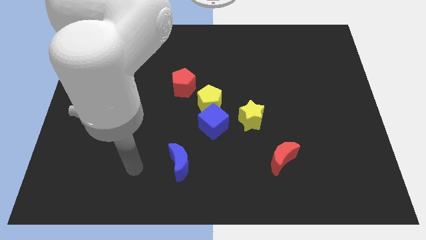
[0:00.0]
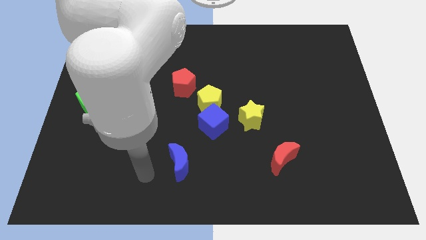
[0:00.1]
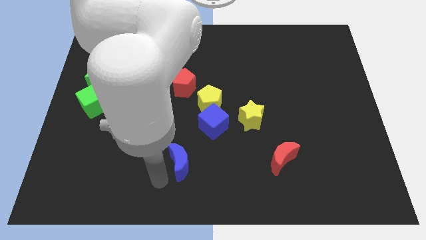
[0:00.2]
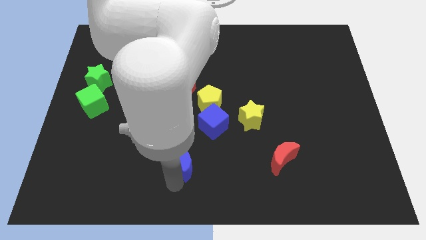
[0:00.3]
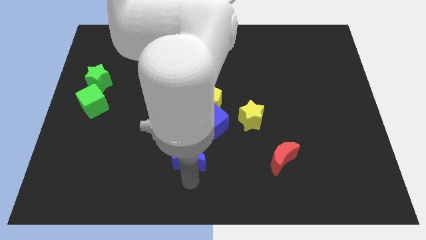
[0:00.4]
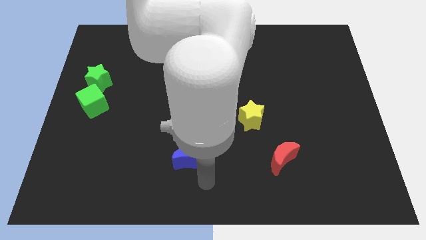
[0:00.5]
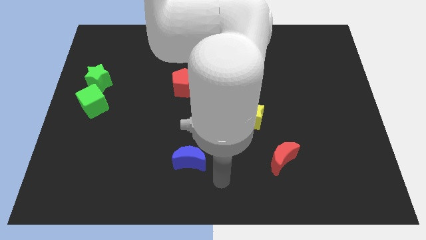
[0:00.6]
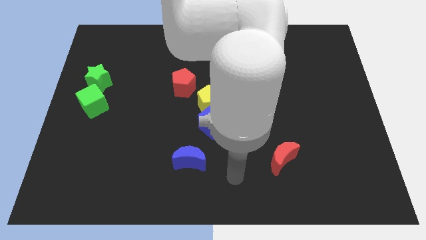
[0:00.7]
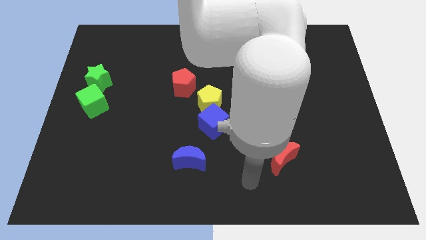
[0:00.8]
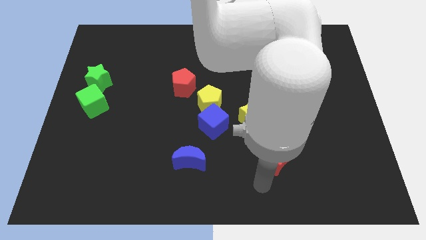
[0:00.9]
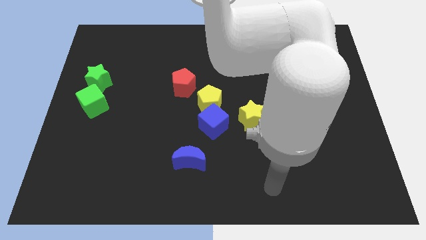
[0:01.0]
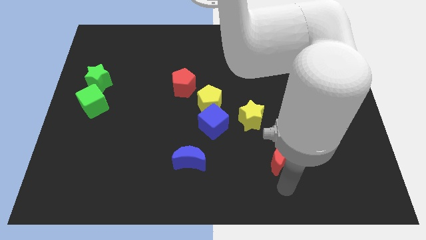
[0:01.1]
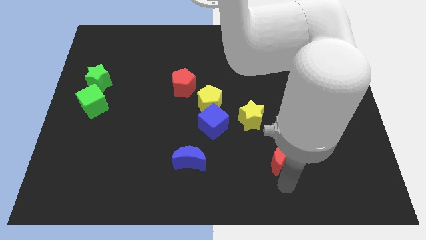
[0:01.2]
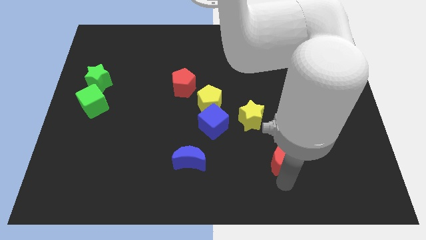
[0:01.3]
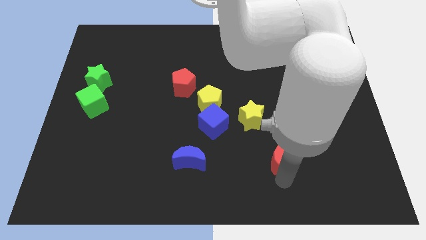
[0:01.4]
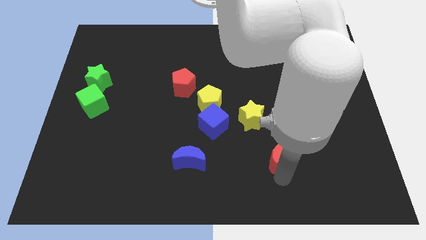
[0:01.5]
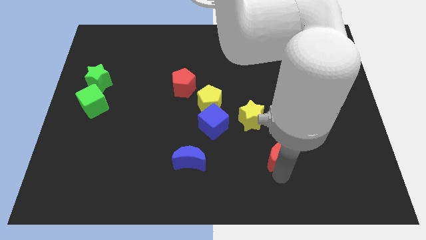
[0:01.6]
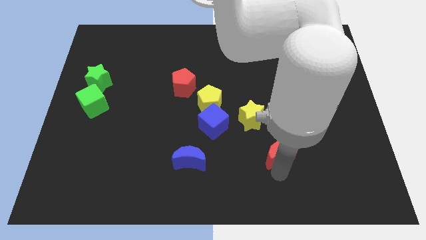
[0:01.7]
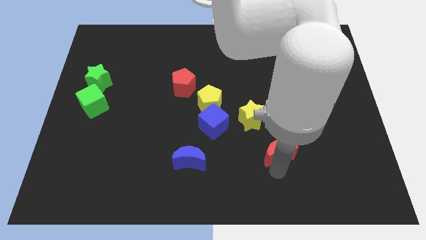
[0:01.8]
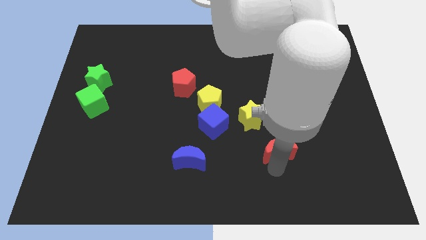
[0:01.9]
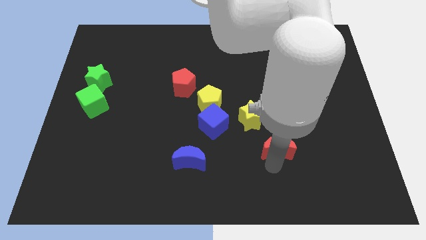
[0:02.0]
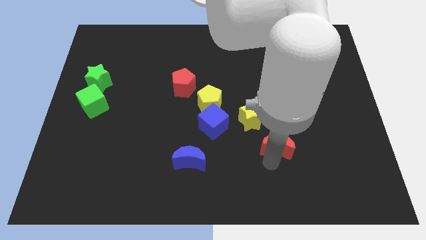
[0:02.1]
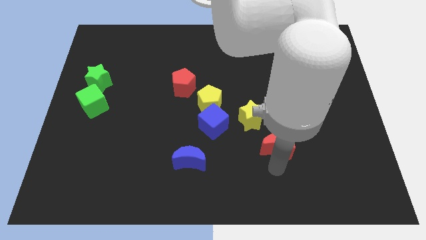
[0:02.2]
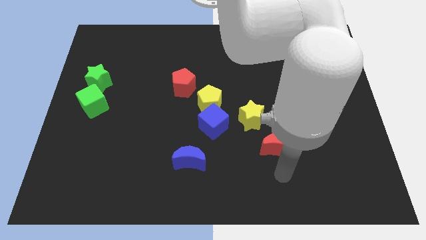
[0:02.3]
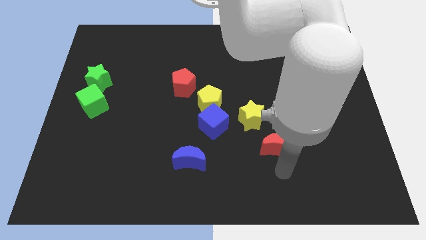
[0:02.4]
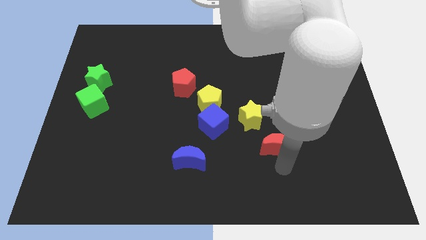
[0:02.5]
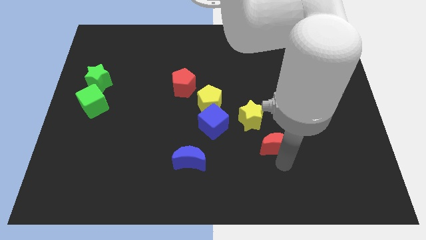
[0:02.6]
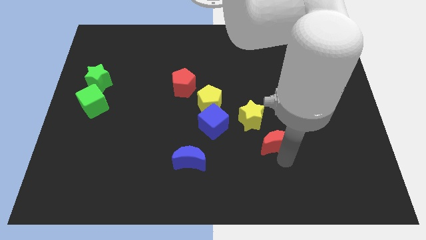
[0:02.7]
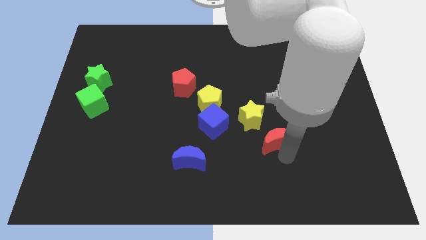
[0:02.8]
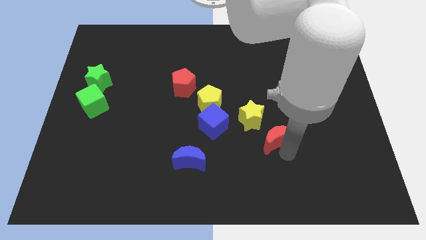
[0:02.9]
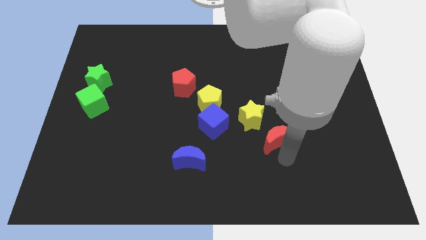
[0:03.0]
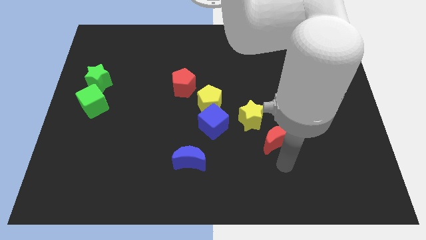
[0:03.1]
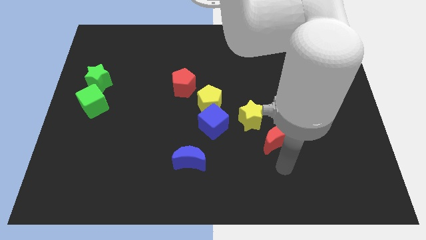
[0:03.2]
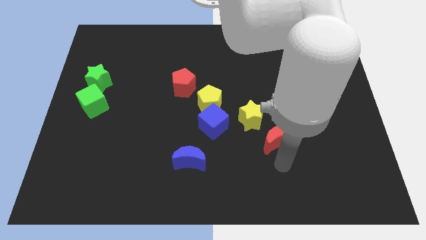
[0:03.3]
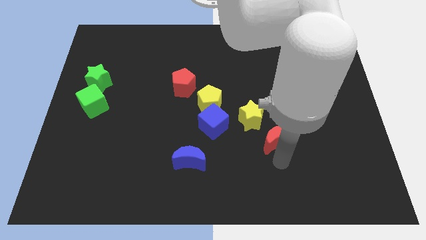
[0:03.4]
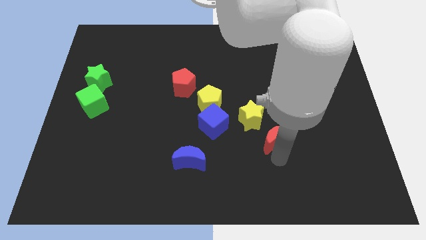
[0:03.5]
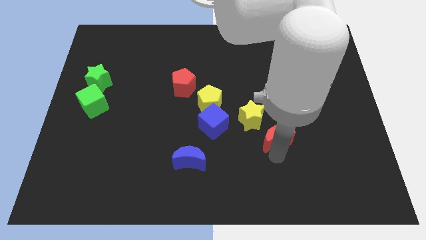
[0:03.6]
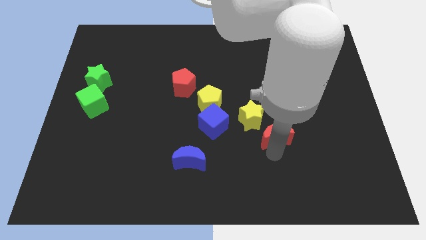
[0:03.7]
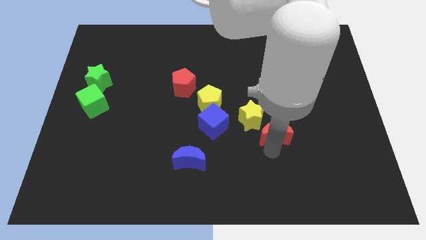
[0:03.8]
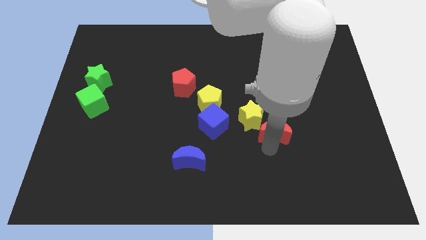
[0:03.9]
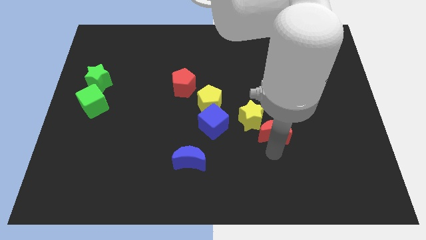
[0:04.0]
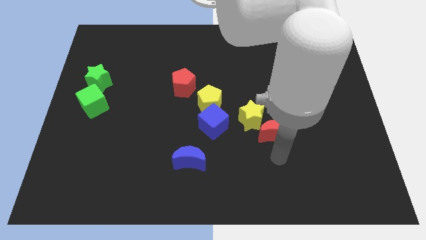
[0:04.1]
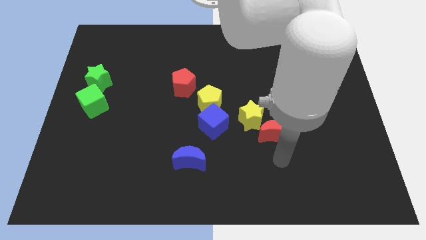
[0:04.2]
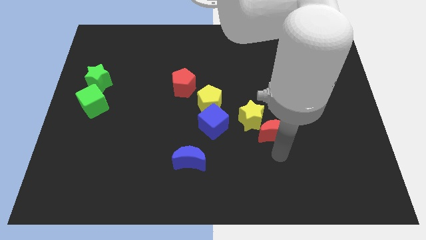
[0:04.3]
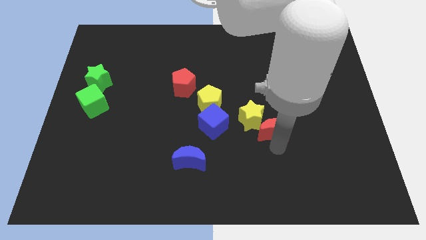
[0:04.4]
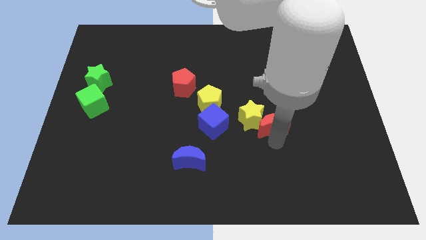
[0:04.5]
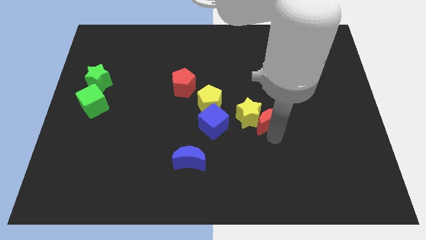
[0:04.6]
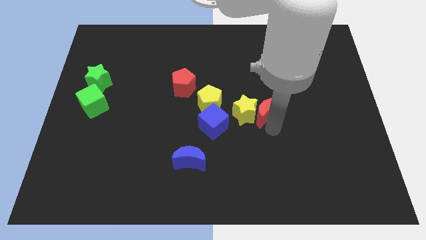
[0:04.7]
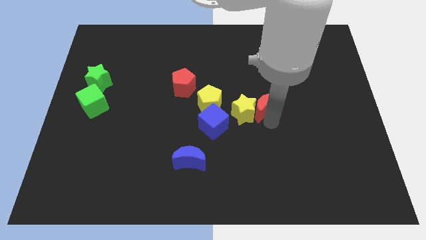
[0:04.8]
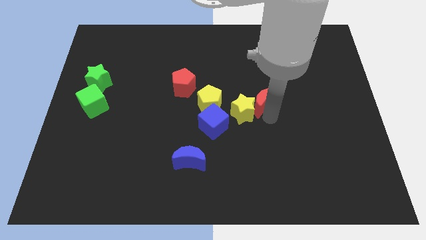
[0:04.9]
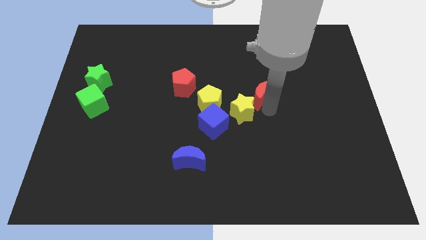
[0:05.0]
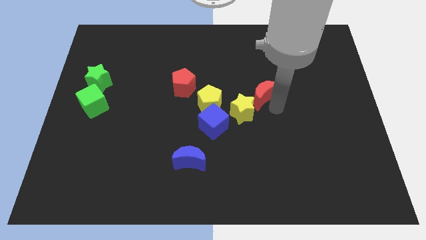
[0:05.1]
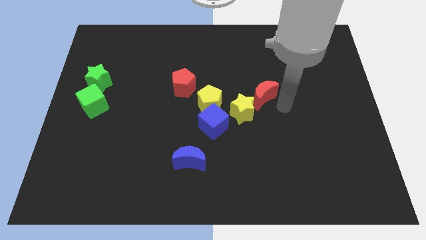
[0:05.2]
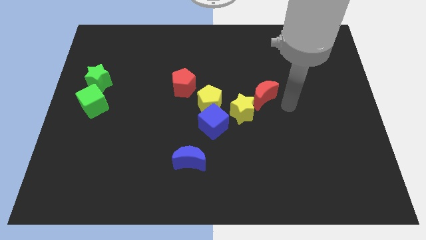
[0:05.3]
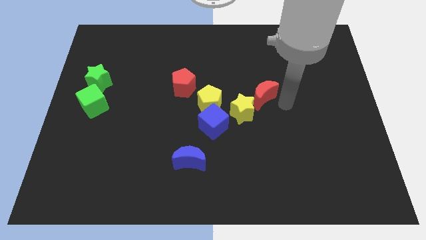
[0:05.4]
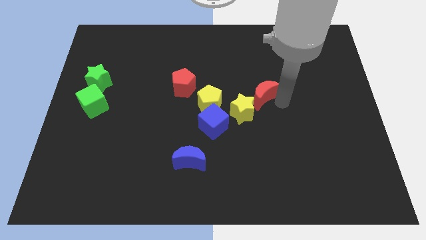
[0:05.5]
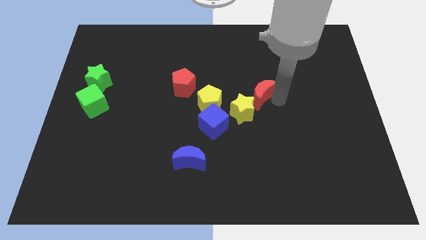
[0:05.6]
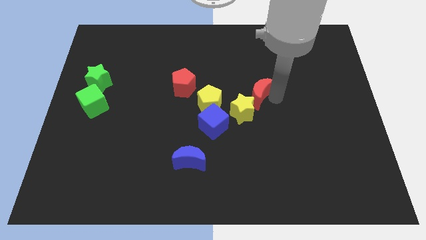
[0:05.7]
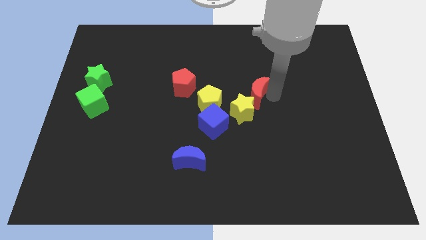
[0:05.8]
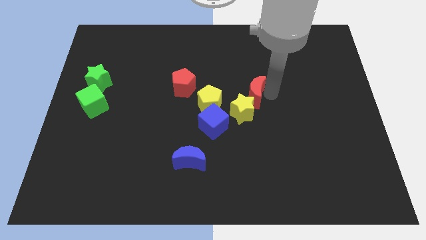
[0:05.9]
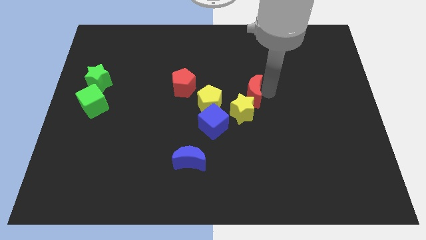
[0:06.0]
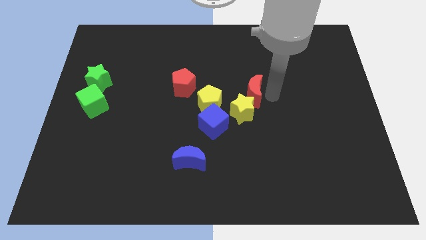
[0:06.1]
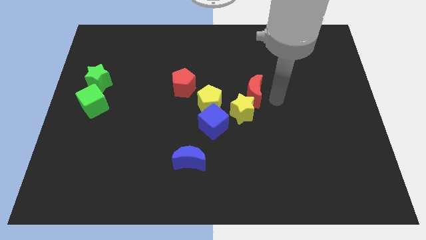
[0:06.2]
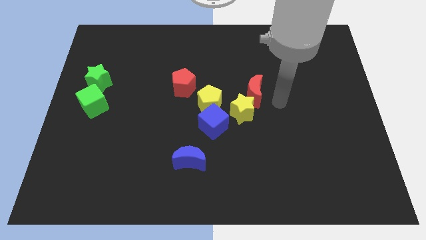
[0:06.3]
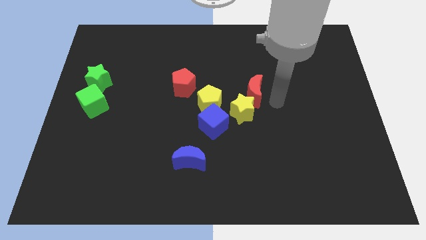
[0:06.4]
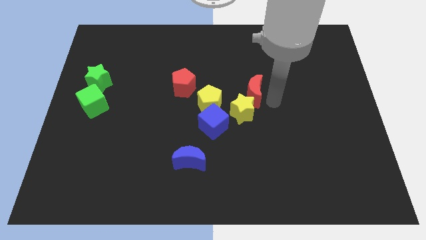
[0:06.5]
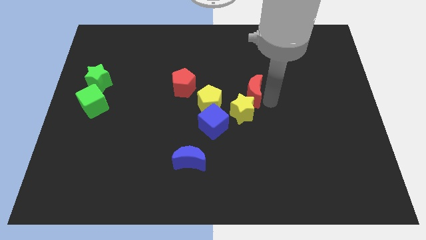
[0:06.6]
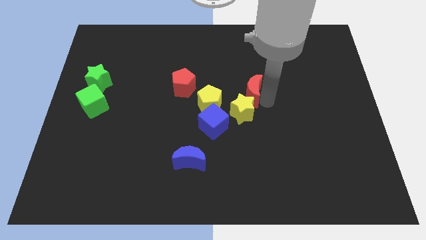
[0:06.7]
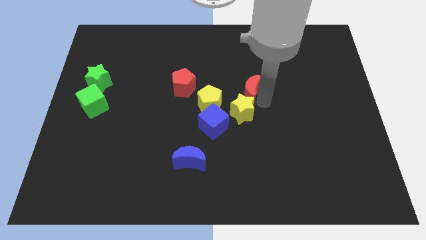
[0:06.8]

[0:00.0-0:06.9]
move the red moon diagonally up and to the right of the yellow pentagon
